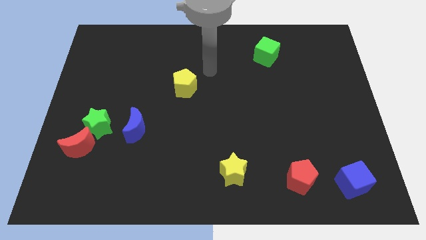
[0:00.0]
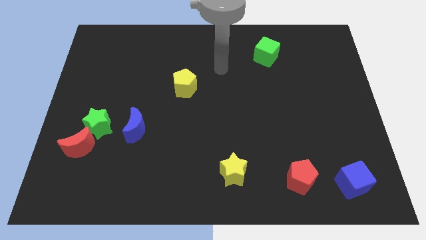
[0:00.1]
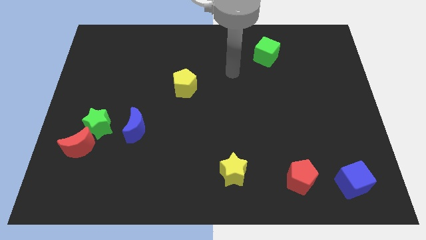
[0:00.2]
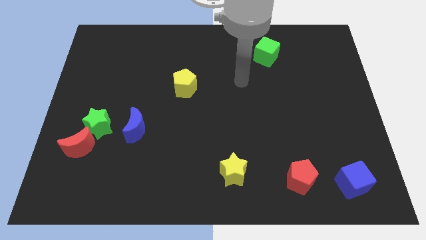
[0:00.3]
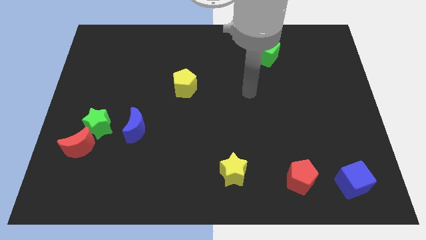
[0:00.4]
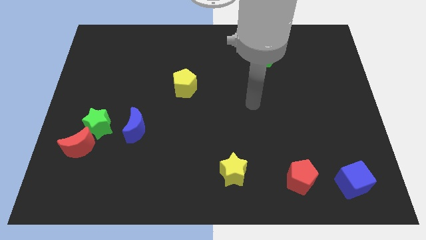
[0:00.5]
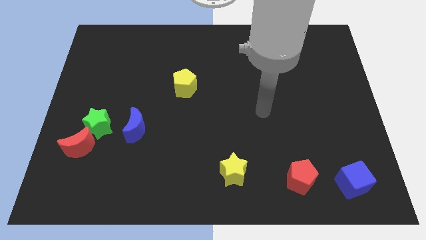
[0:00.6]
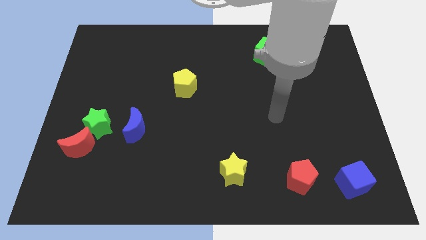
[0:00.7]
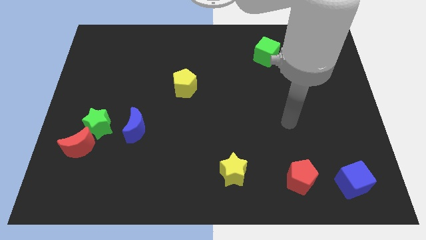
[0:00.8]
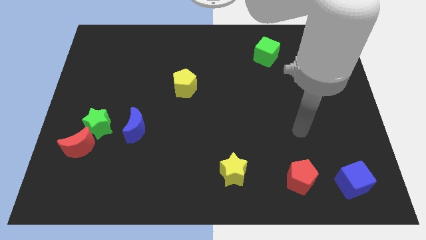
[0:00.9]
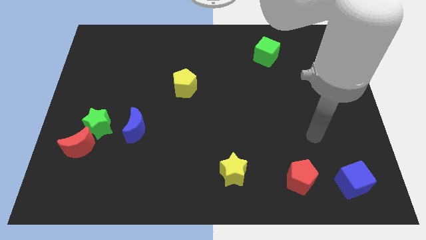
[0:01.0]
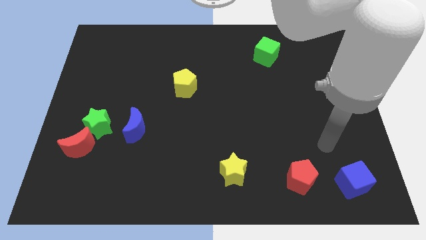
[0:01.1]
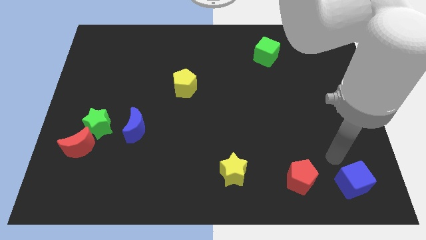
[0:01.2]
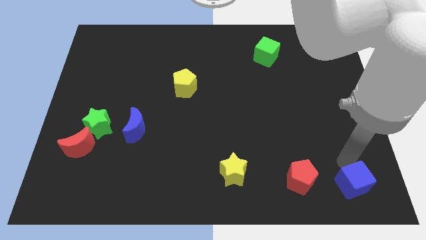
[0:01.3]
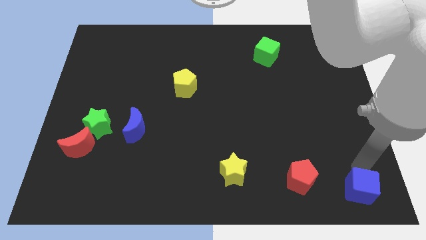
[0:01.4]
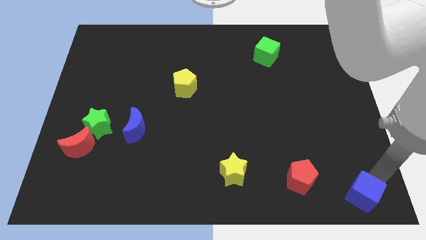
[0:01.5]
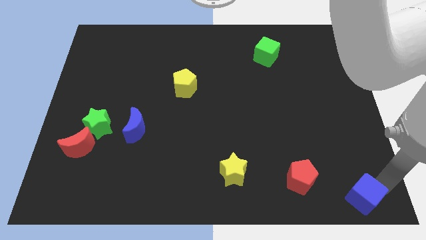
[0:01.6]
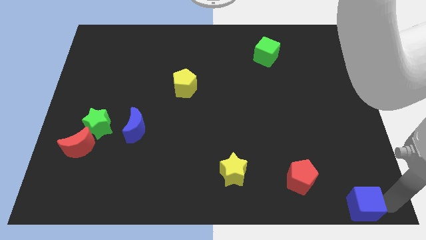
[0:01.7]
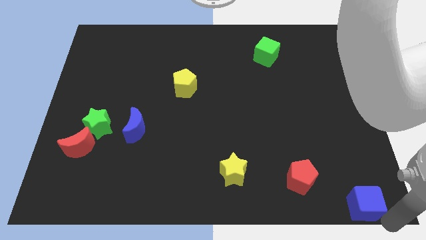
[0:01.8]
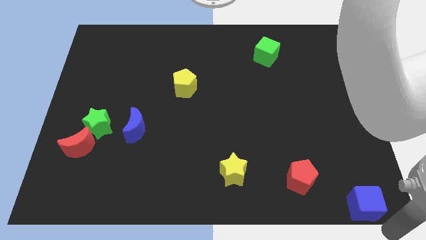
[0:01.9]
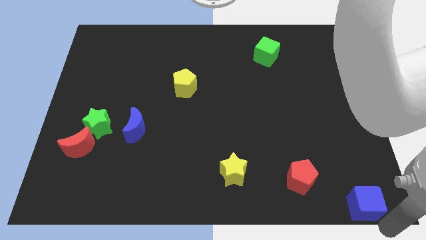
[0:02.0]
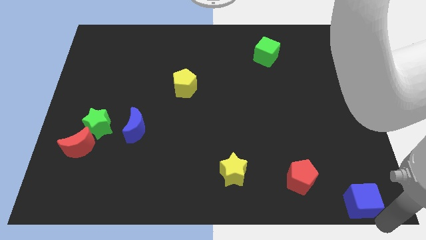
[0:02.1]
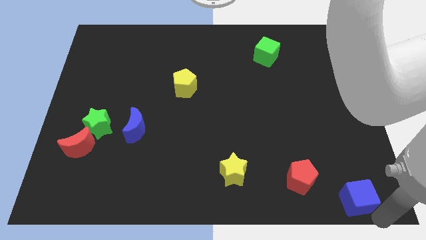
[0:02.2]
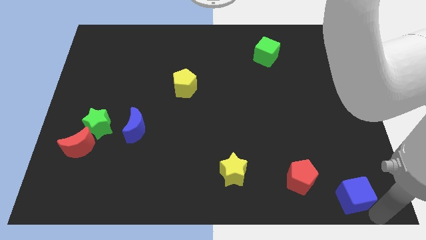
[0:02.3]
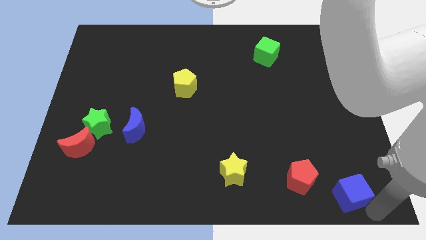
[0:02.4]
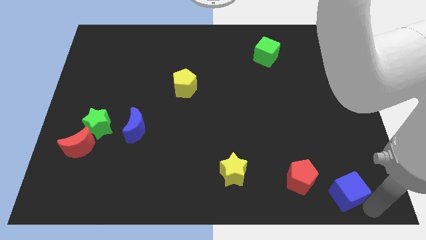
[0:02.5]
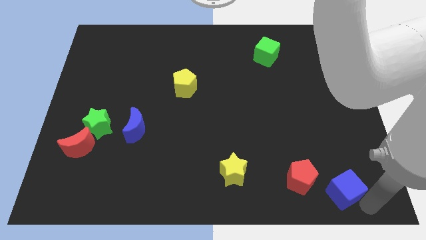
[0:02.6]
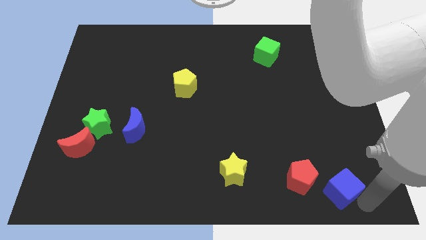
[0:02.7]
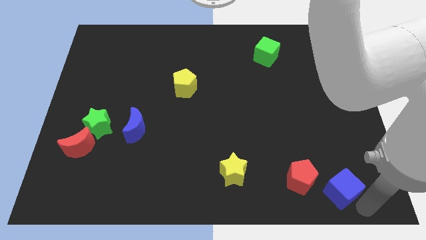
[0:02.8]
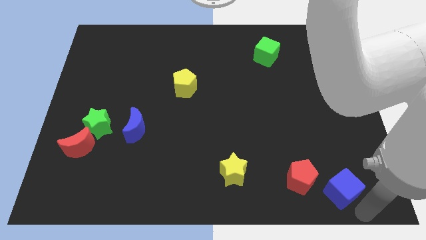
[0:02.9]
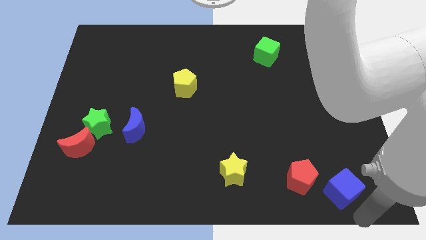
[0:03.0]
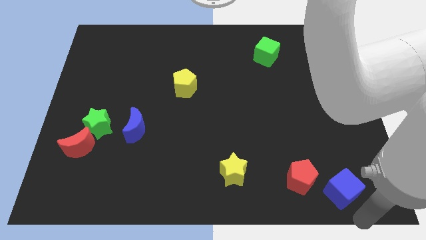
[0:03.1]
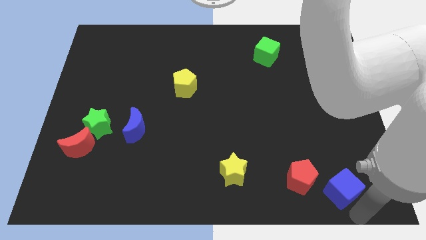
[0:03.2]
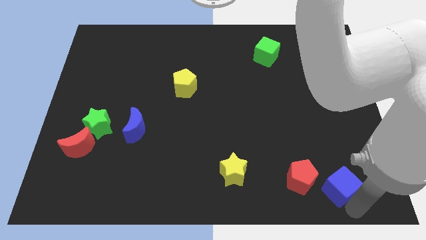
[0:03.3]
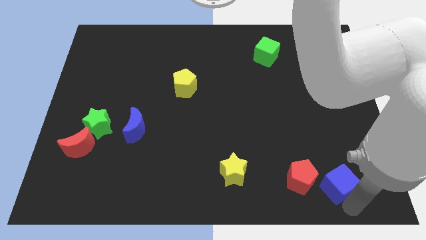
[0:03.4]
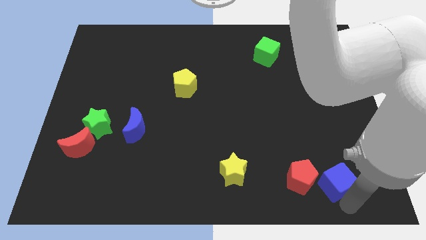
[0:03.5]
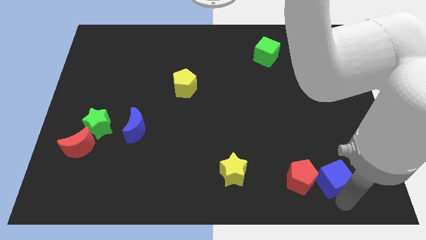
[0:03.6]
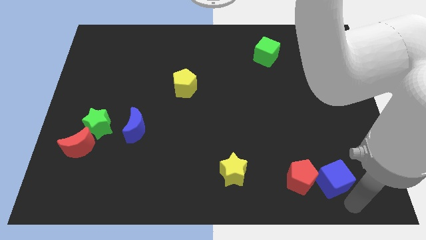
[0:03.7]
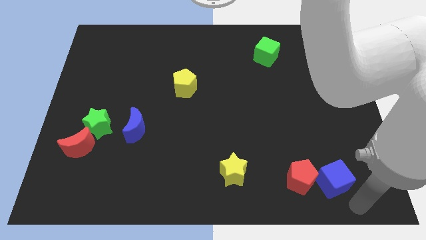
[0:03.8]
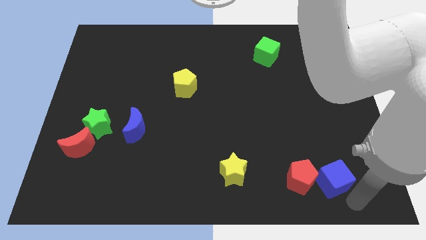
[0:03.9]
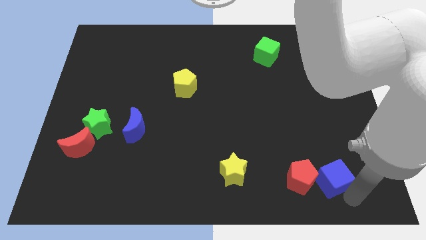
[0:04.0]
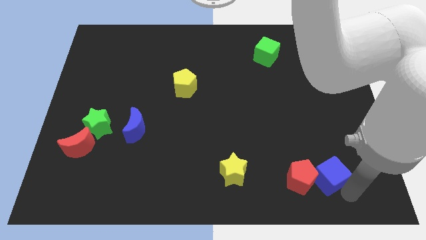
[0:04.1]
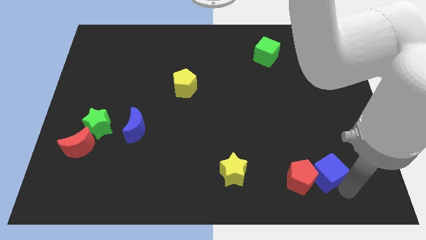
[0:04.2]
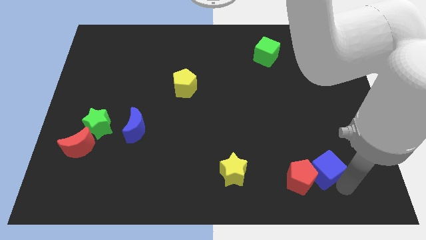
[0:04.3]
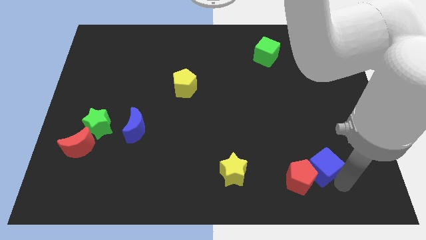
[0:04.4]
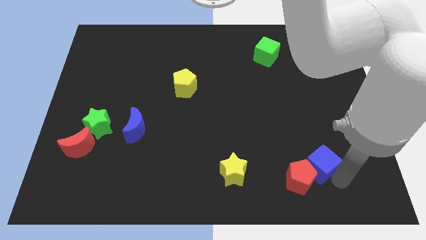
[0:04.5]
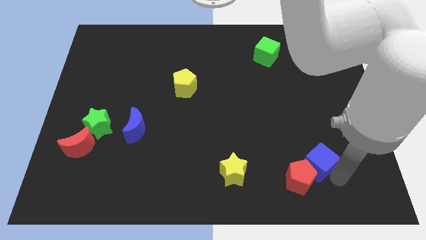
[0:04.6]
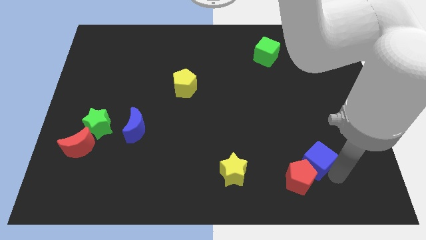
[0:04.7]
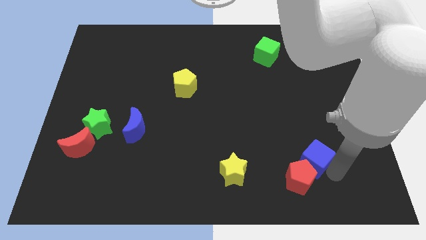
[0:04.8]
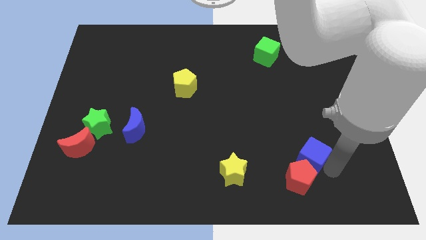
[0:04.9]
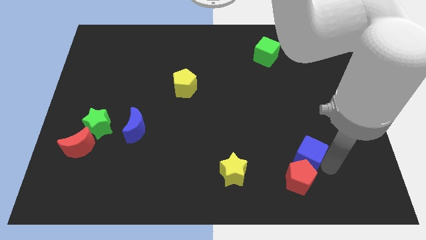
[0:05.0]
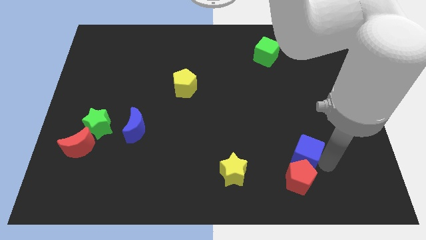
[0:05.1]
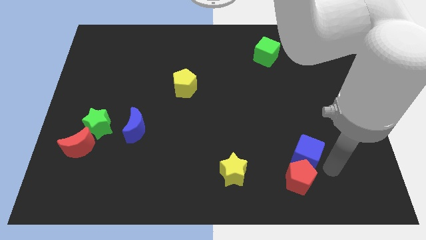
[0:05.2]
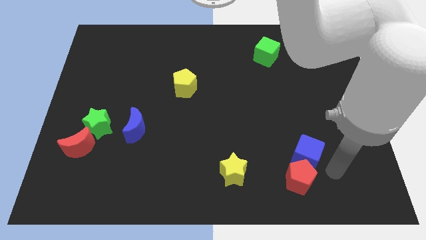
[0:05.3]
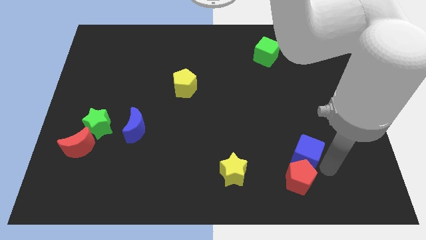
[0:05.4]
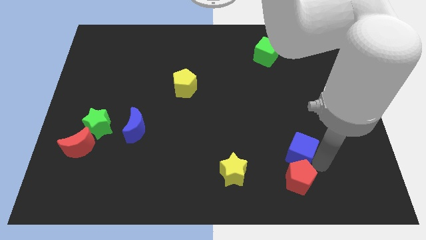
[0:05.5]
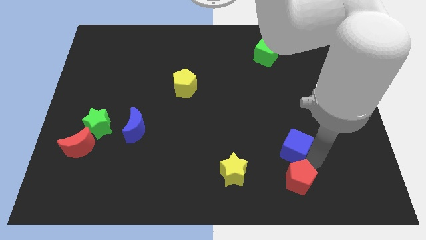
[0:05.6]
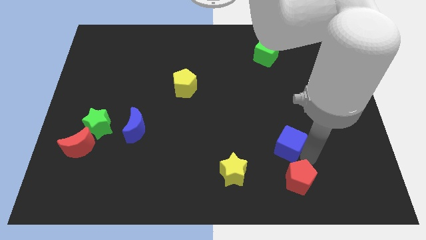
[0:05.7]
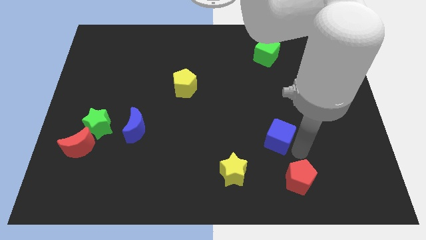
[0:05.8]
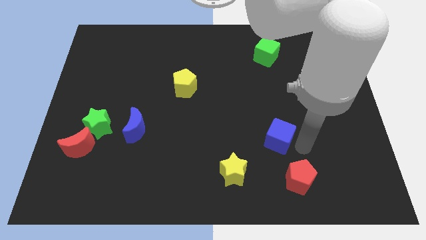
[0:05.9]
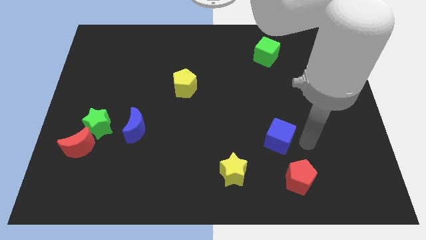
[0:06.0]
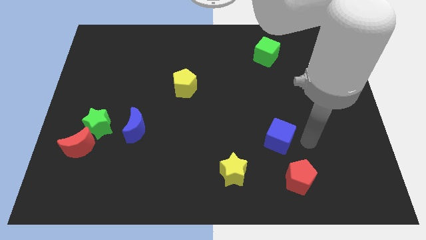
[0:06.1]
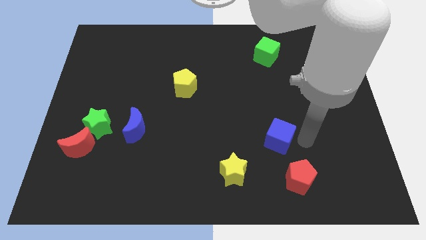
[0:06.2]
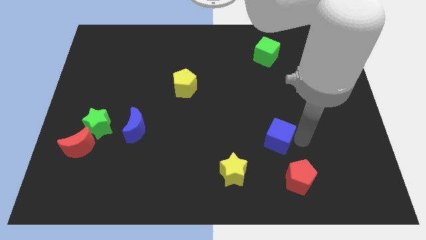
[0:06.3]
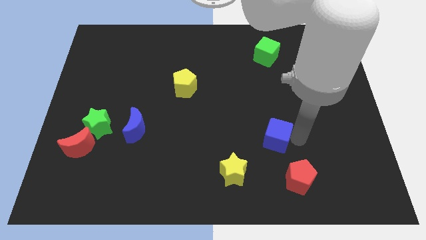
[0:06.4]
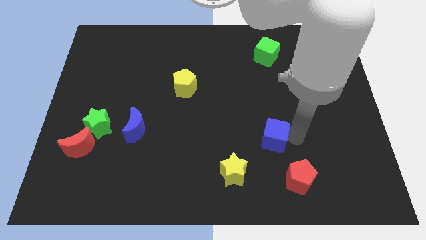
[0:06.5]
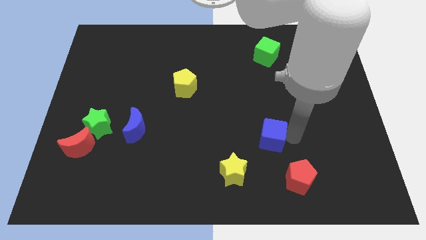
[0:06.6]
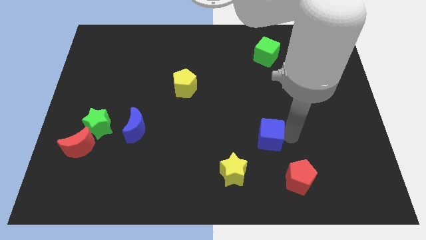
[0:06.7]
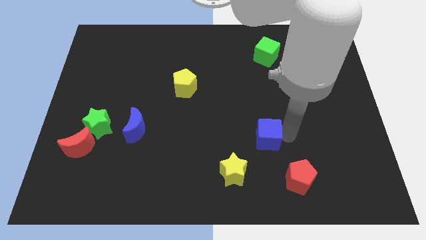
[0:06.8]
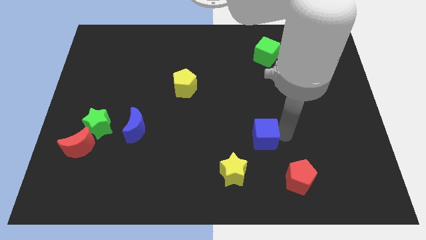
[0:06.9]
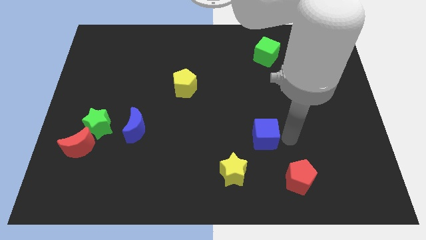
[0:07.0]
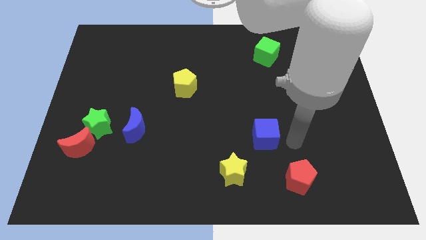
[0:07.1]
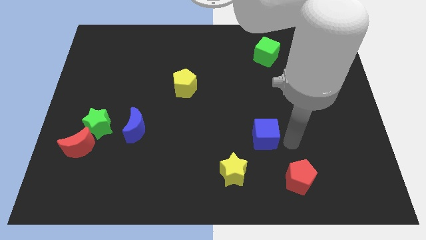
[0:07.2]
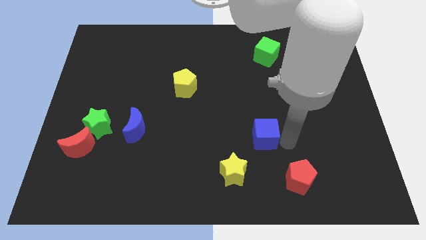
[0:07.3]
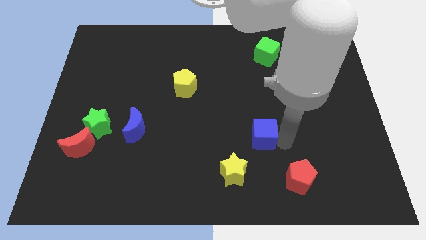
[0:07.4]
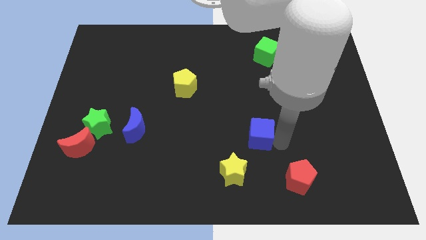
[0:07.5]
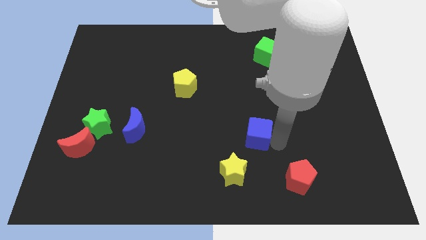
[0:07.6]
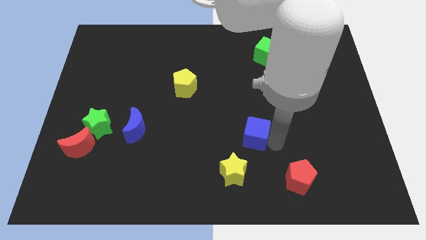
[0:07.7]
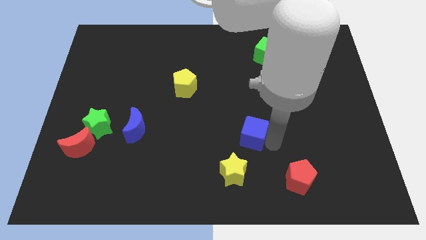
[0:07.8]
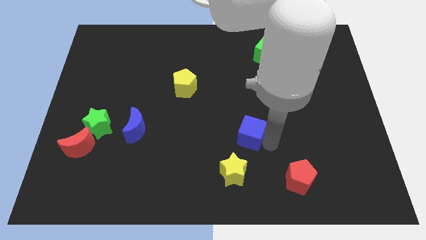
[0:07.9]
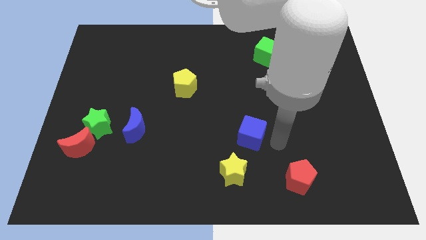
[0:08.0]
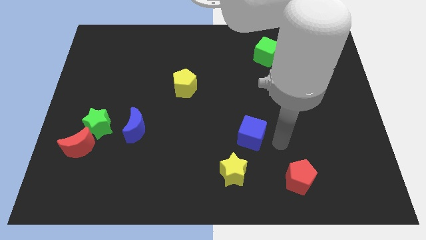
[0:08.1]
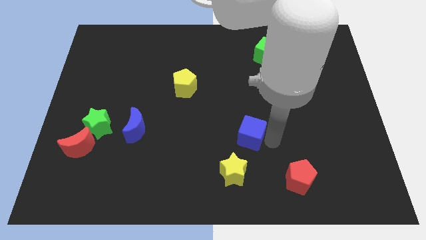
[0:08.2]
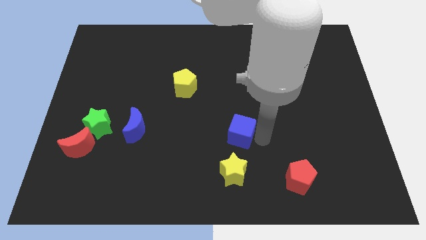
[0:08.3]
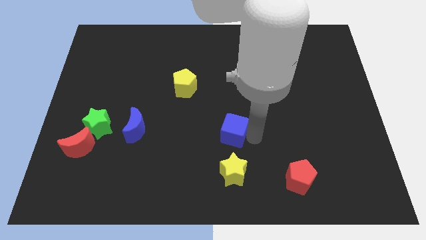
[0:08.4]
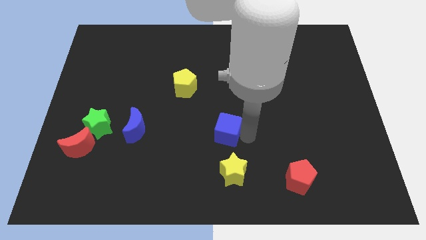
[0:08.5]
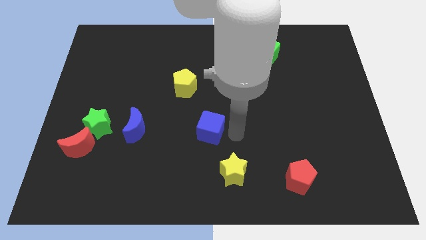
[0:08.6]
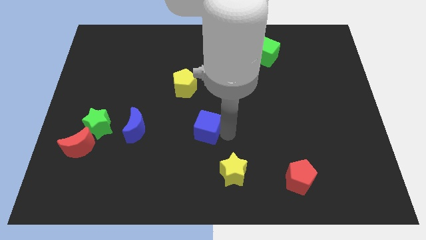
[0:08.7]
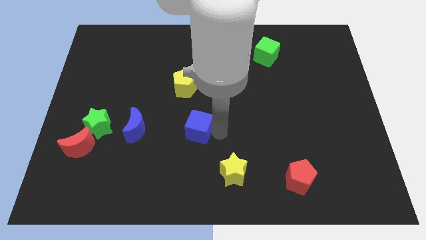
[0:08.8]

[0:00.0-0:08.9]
put the blue cube to the bottom side of the yellow pentagon
